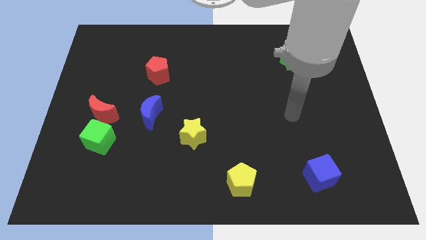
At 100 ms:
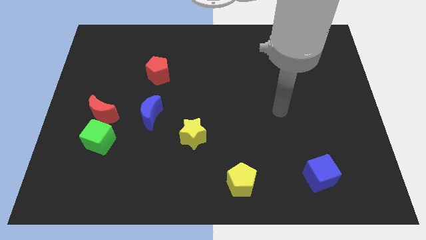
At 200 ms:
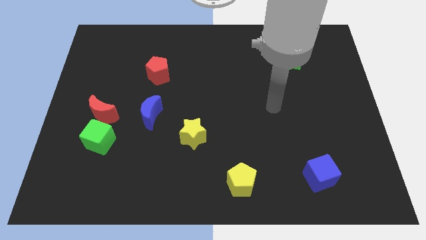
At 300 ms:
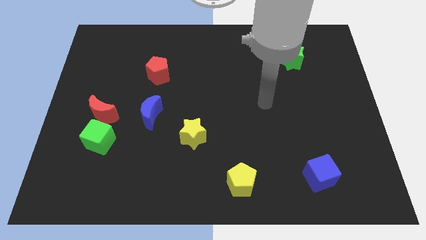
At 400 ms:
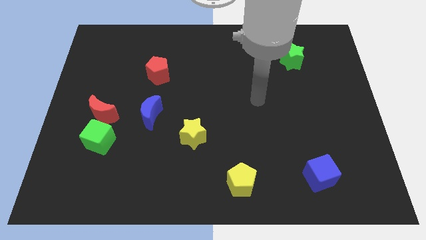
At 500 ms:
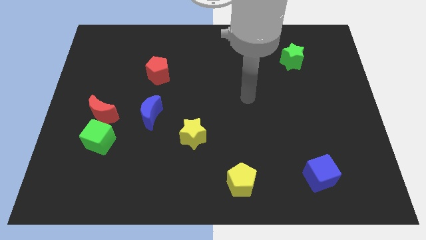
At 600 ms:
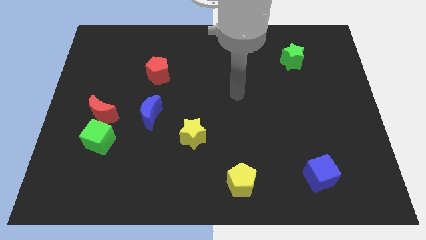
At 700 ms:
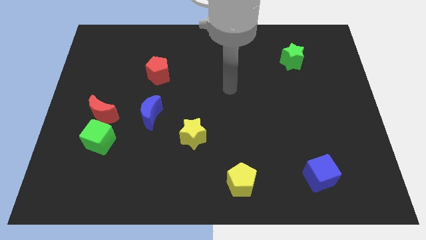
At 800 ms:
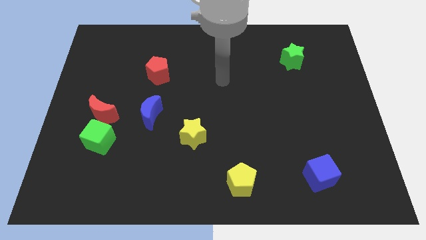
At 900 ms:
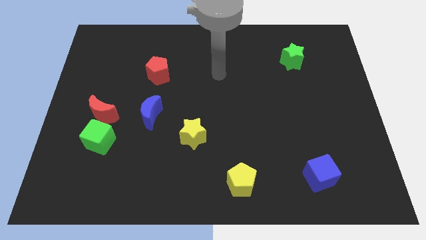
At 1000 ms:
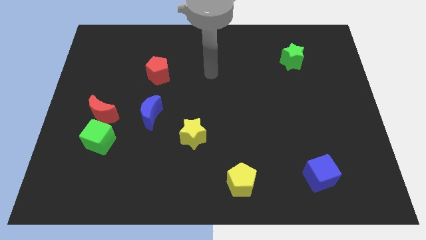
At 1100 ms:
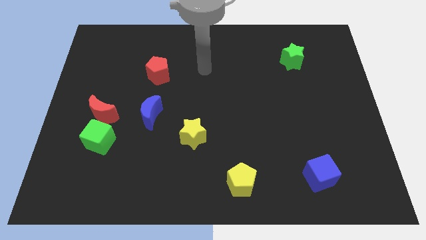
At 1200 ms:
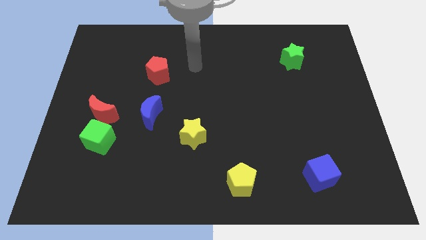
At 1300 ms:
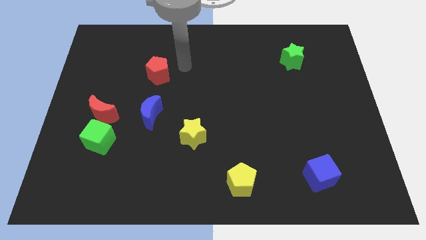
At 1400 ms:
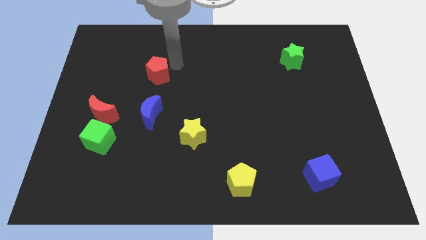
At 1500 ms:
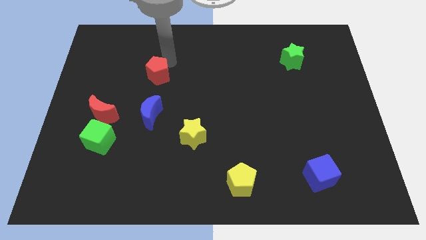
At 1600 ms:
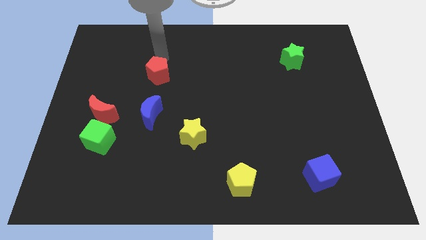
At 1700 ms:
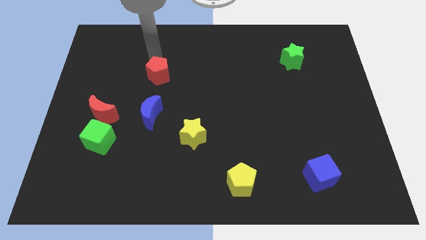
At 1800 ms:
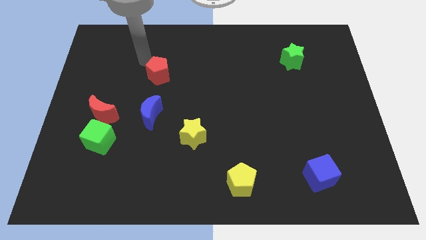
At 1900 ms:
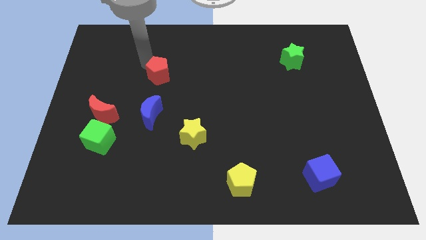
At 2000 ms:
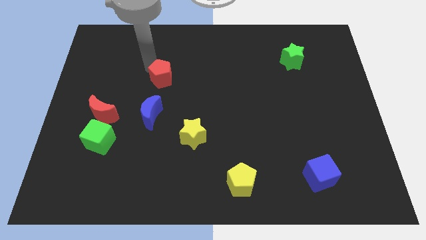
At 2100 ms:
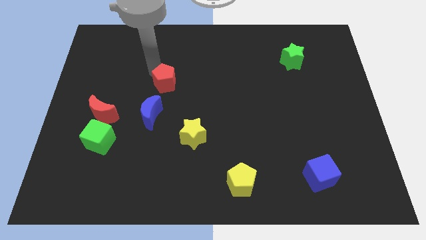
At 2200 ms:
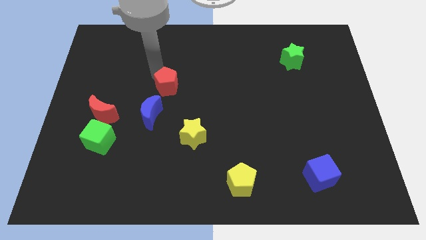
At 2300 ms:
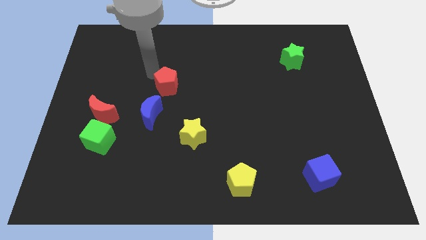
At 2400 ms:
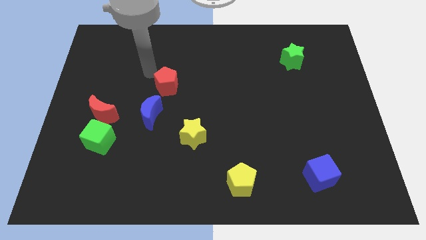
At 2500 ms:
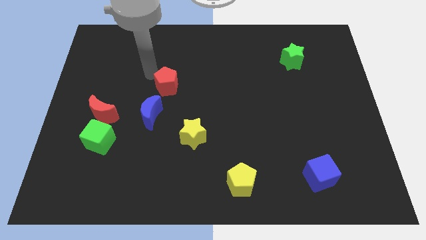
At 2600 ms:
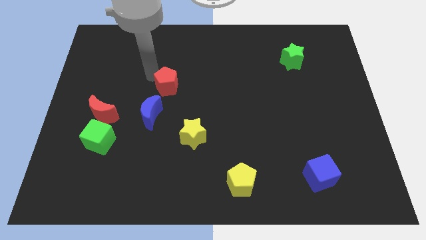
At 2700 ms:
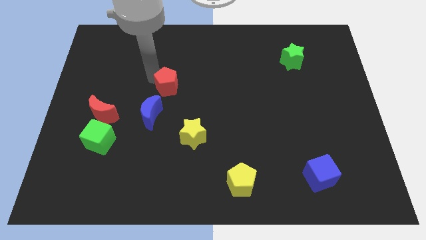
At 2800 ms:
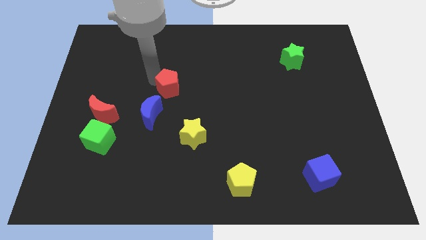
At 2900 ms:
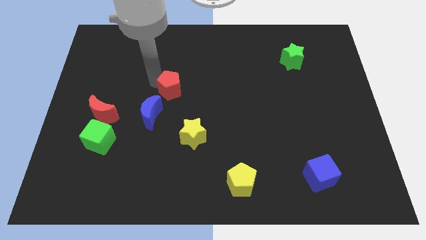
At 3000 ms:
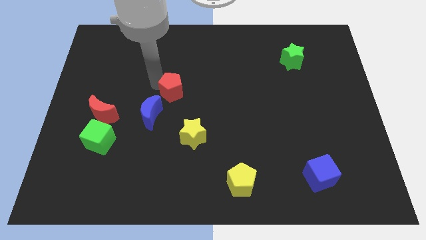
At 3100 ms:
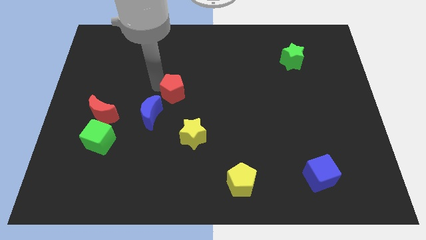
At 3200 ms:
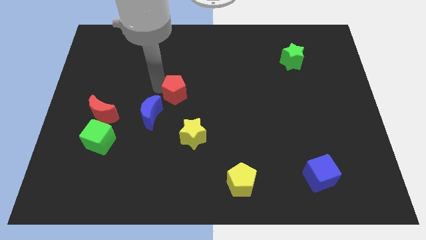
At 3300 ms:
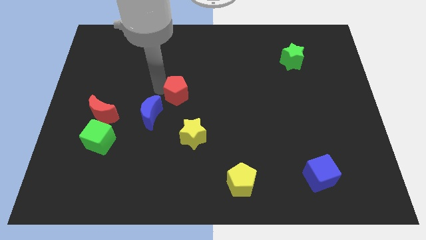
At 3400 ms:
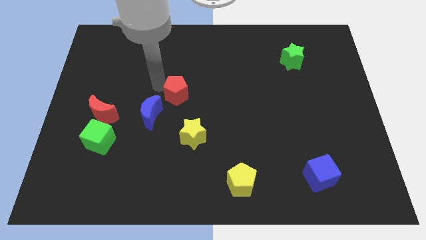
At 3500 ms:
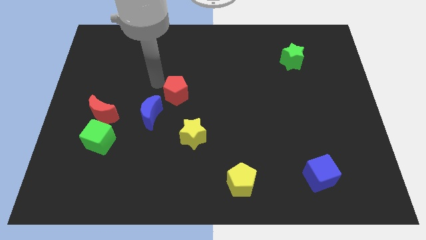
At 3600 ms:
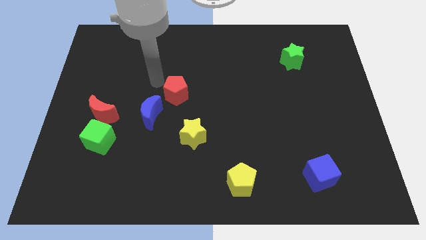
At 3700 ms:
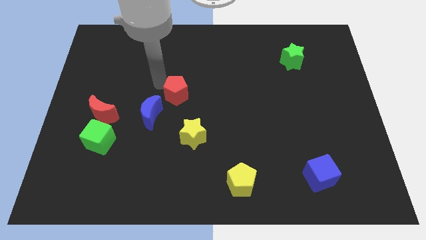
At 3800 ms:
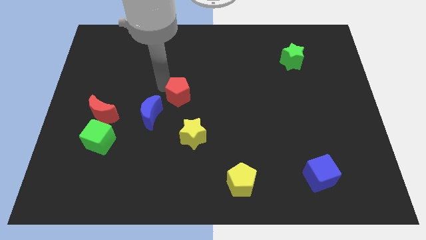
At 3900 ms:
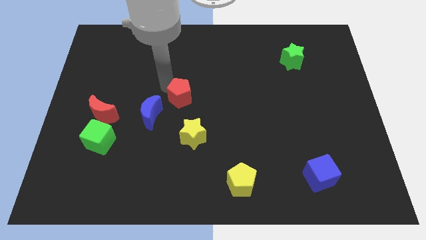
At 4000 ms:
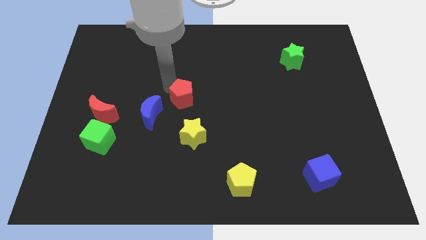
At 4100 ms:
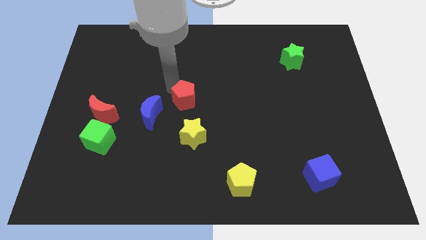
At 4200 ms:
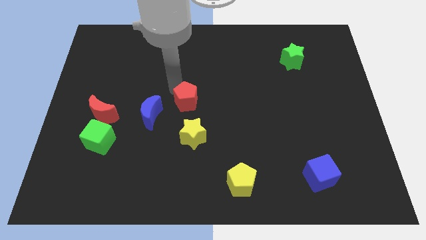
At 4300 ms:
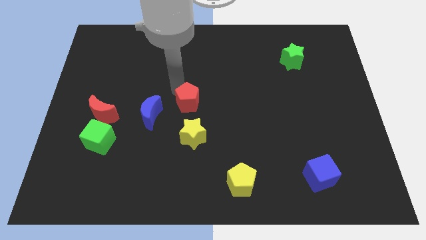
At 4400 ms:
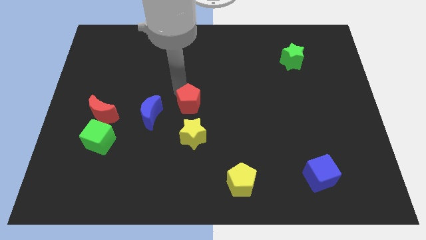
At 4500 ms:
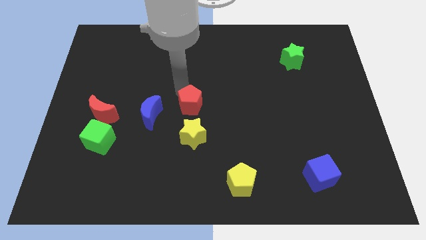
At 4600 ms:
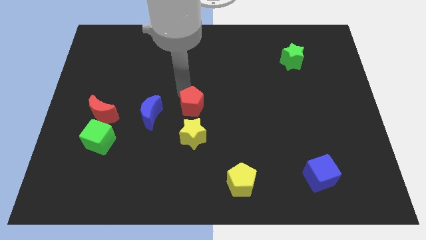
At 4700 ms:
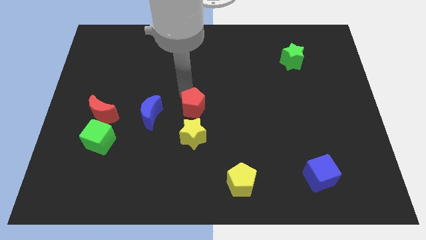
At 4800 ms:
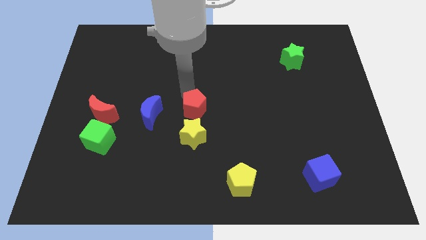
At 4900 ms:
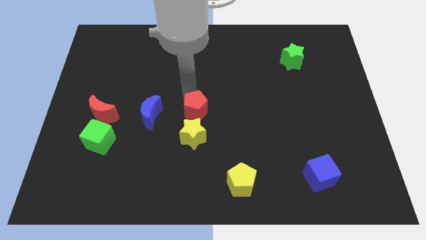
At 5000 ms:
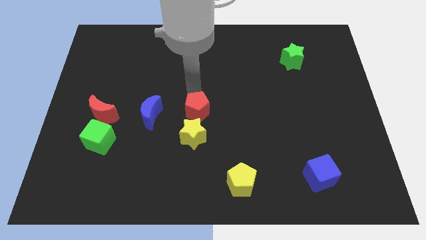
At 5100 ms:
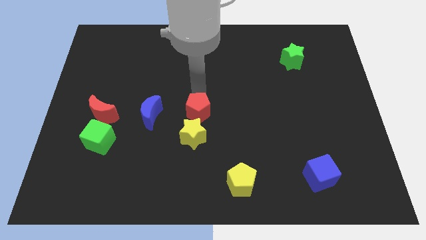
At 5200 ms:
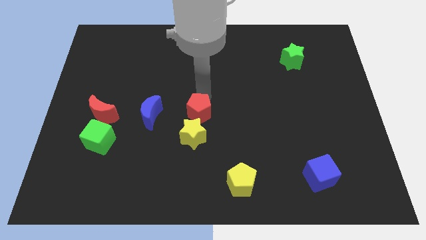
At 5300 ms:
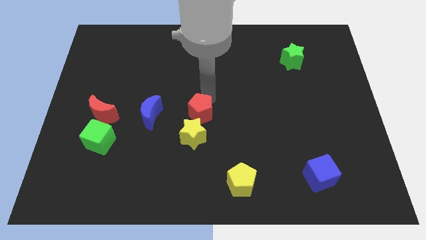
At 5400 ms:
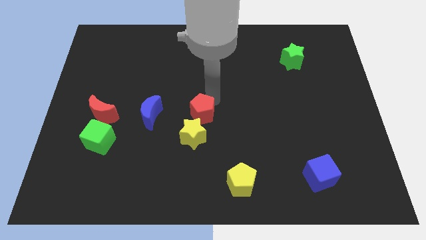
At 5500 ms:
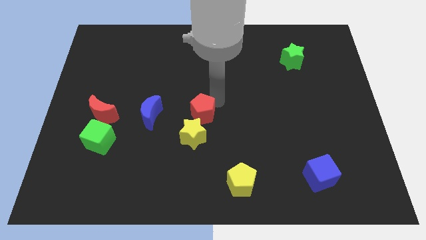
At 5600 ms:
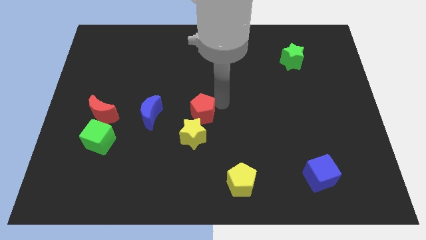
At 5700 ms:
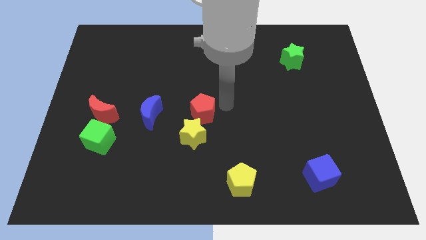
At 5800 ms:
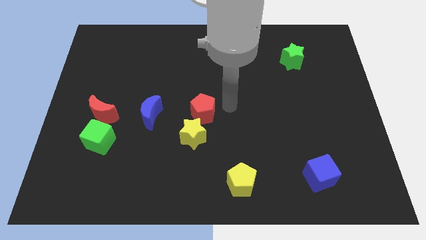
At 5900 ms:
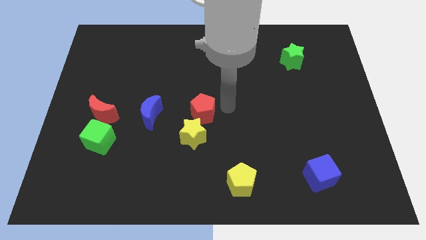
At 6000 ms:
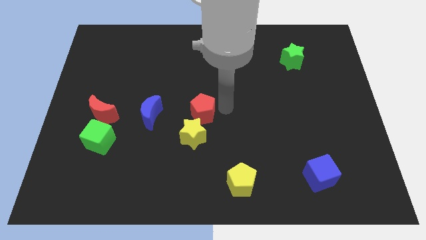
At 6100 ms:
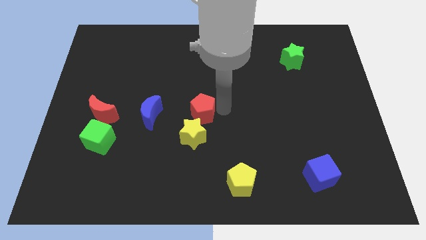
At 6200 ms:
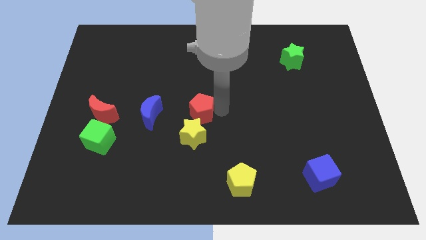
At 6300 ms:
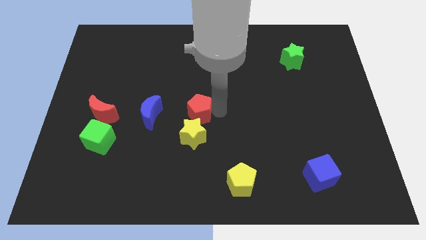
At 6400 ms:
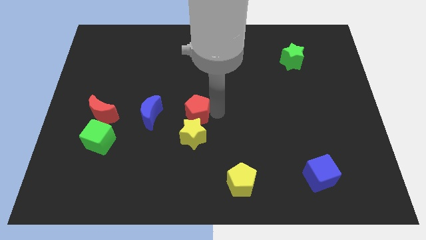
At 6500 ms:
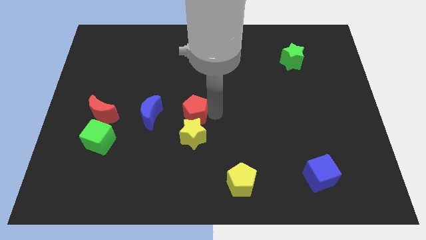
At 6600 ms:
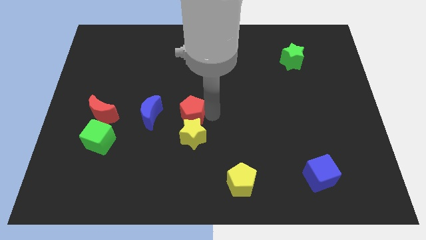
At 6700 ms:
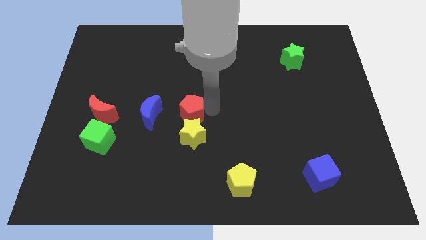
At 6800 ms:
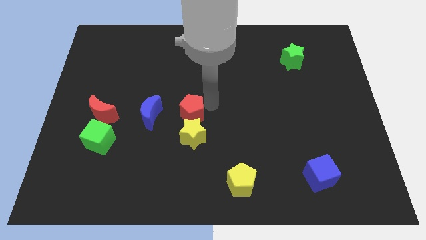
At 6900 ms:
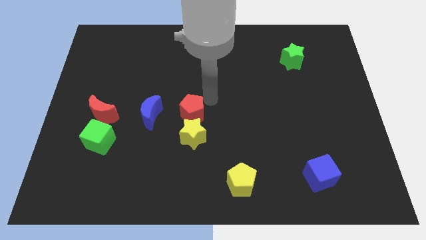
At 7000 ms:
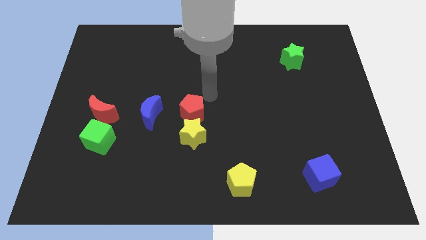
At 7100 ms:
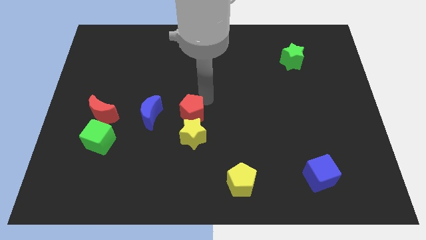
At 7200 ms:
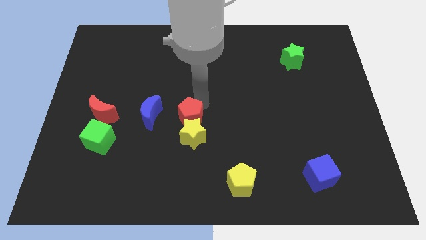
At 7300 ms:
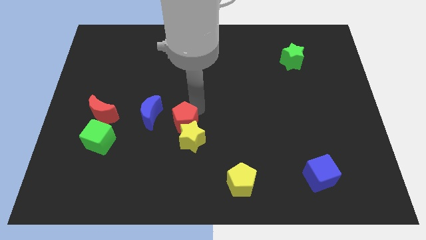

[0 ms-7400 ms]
slide the red pentagon diagonally down and to the right of the blue moon
